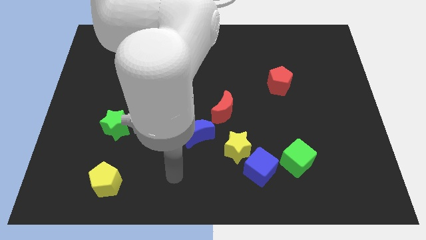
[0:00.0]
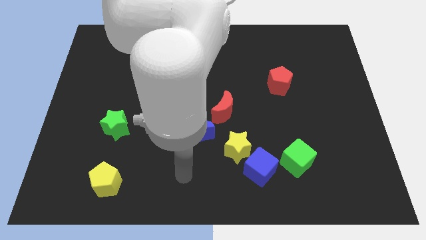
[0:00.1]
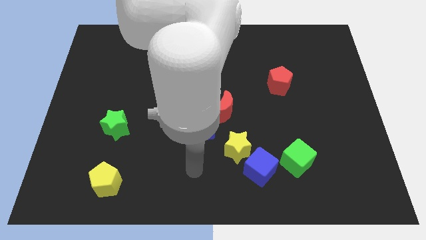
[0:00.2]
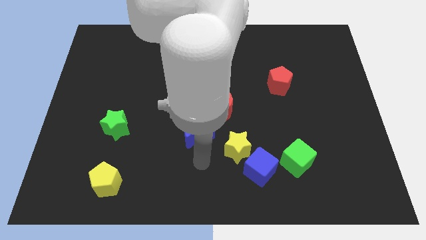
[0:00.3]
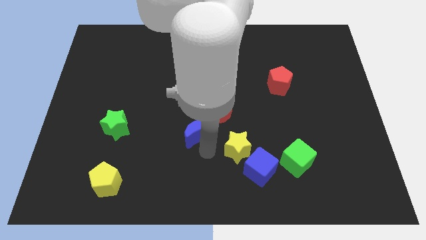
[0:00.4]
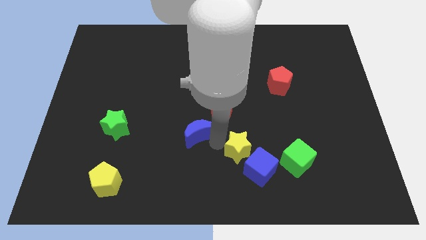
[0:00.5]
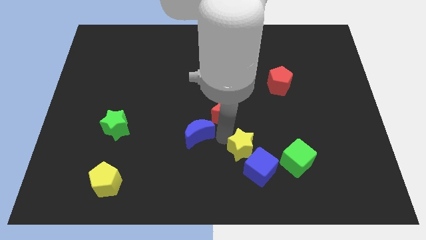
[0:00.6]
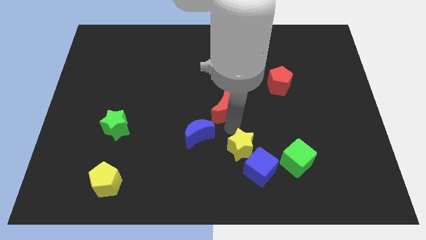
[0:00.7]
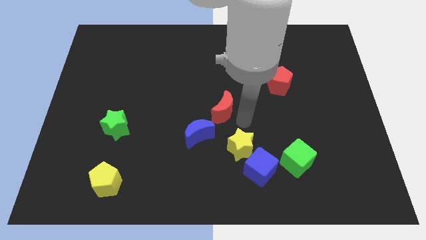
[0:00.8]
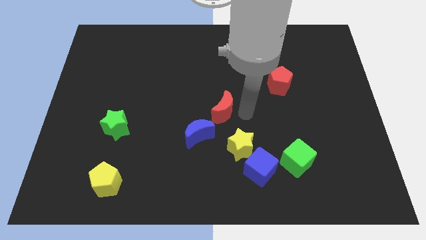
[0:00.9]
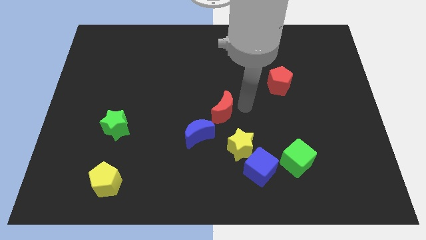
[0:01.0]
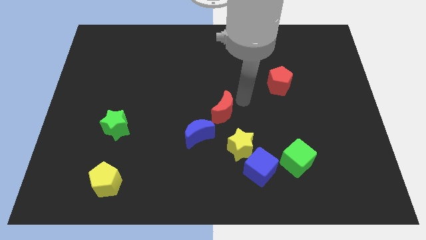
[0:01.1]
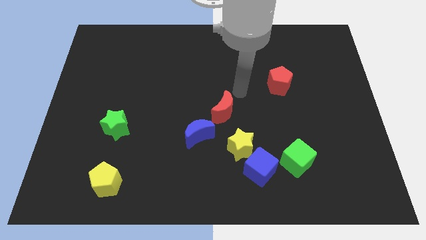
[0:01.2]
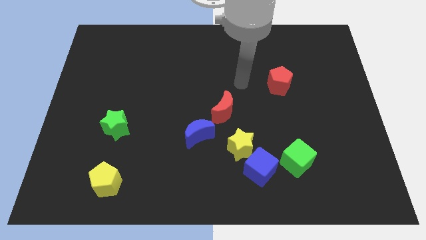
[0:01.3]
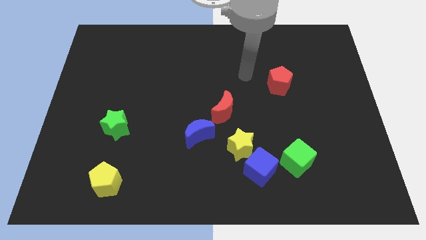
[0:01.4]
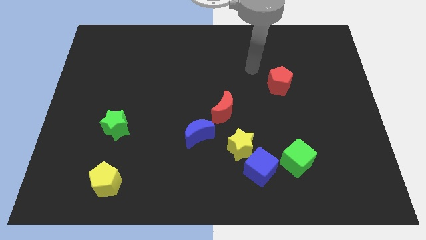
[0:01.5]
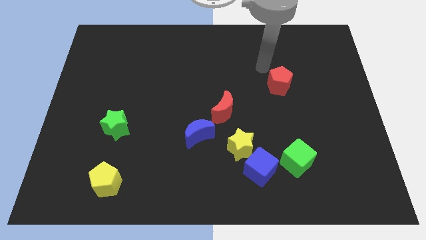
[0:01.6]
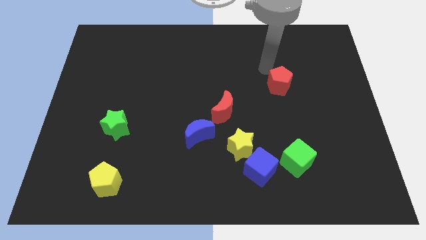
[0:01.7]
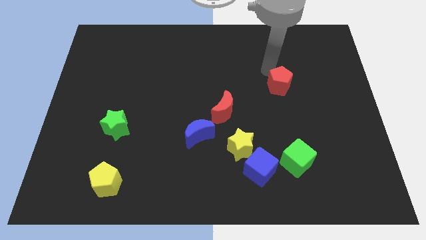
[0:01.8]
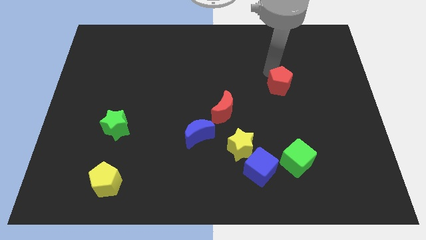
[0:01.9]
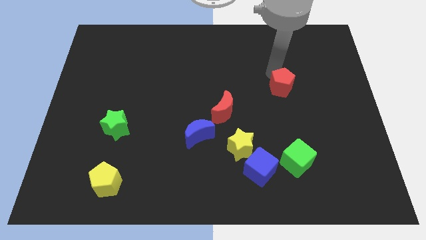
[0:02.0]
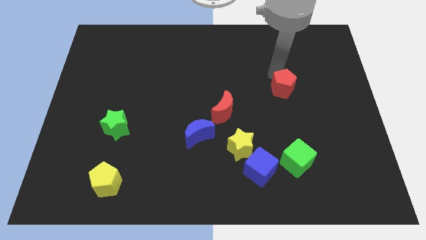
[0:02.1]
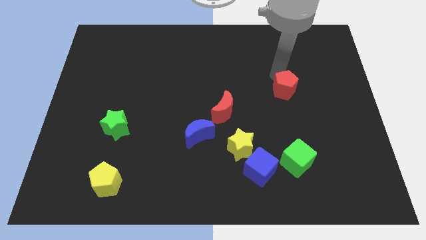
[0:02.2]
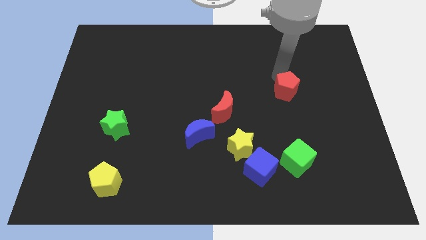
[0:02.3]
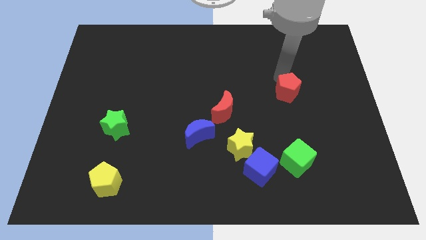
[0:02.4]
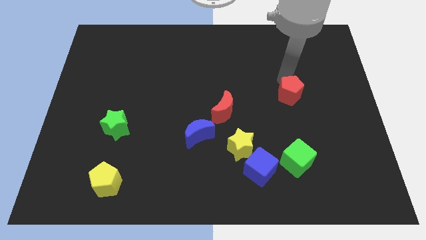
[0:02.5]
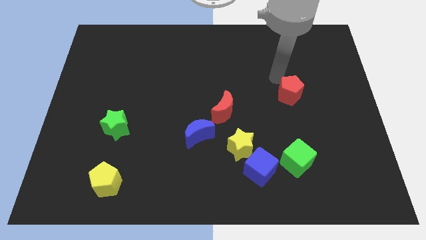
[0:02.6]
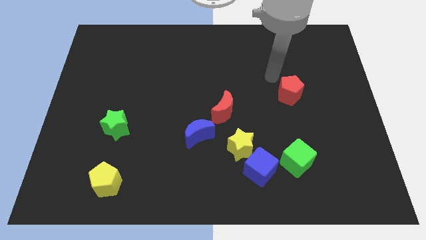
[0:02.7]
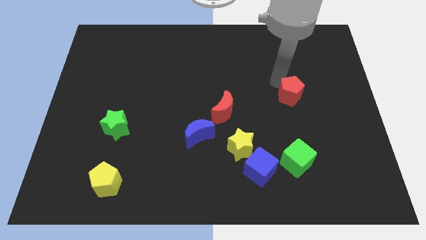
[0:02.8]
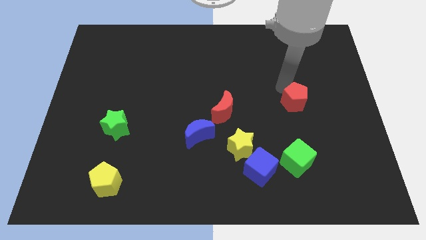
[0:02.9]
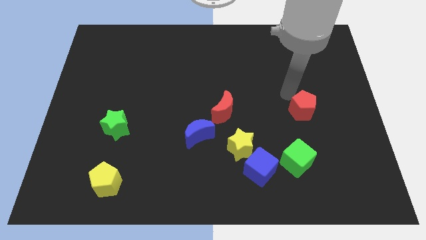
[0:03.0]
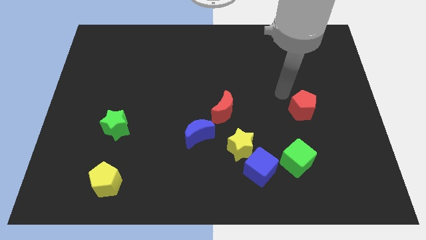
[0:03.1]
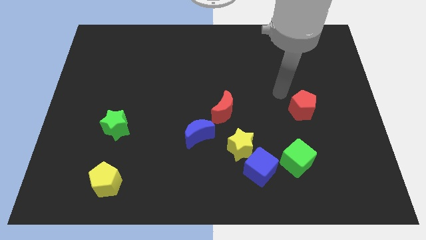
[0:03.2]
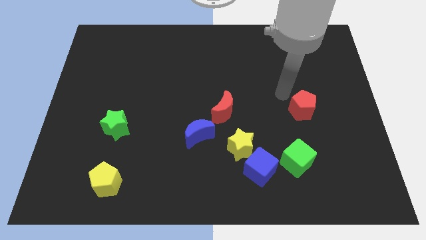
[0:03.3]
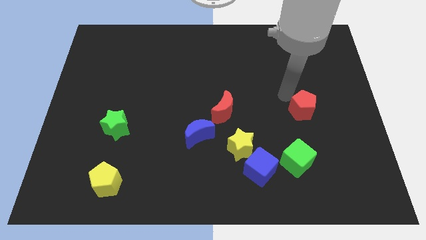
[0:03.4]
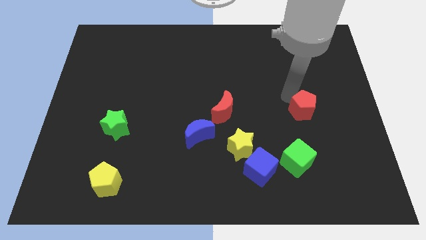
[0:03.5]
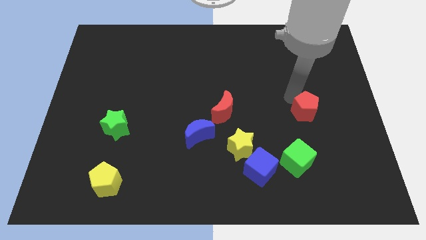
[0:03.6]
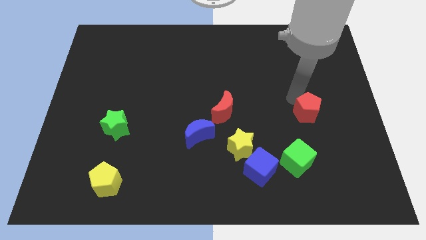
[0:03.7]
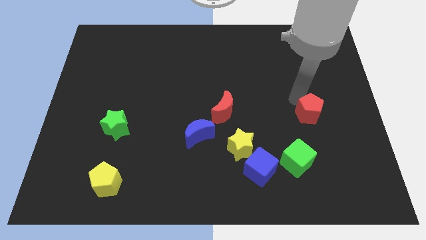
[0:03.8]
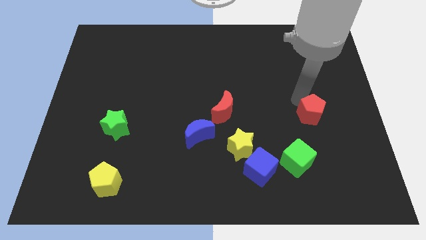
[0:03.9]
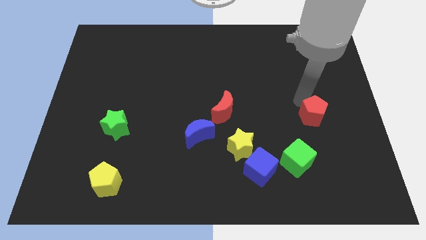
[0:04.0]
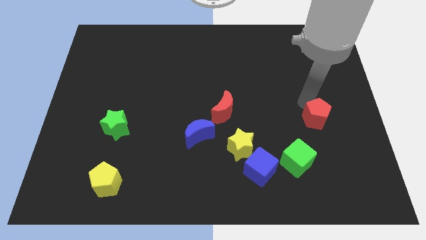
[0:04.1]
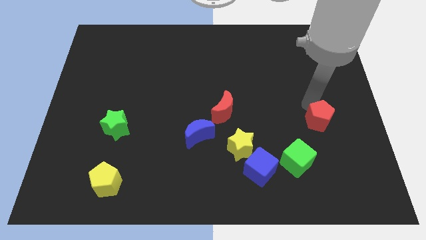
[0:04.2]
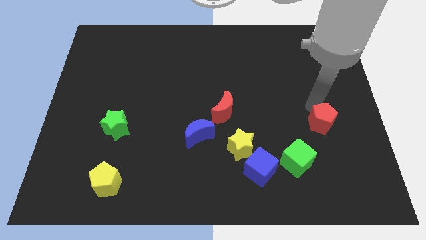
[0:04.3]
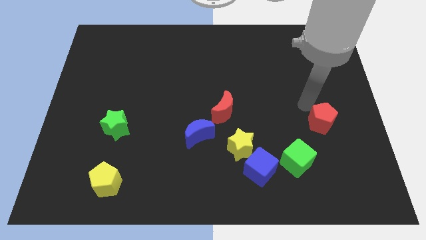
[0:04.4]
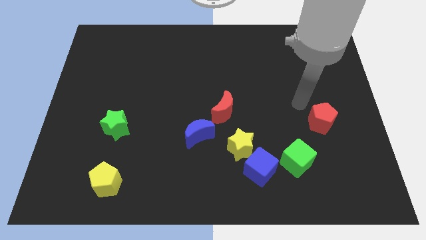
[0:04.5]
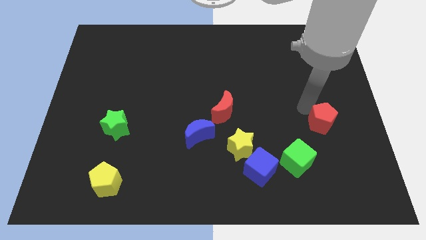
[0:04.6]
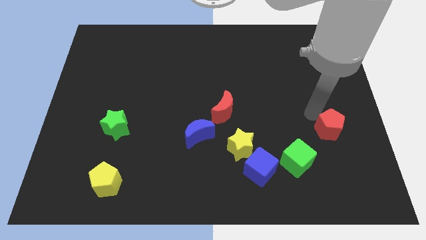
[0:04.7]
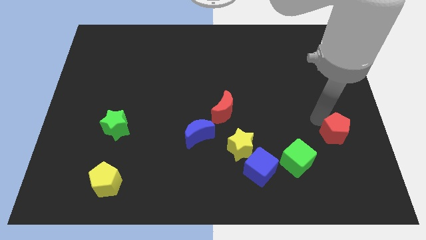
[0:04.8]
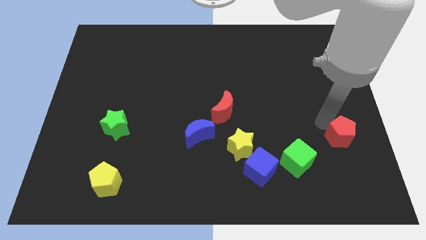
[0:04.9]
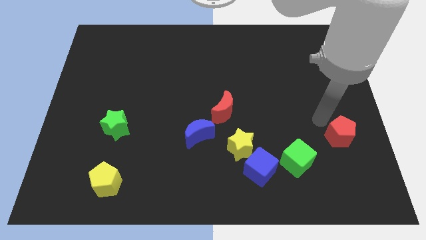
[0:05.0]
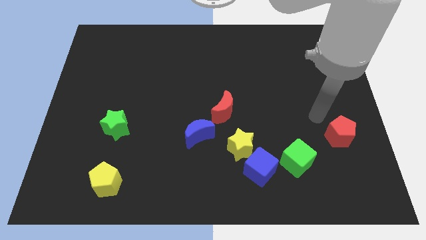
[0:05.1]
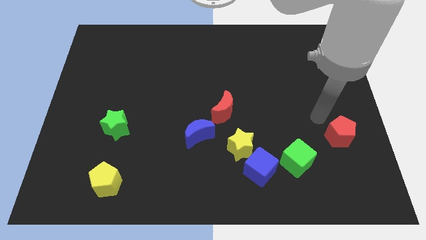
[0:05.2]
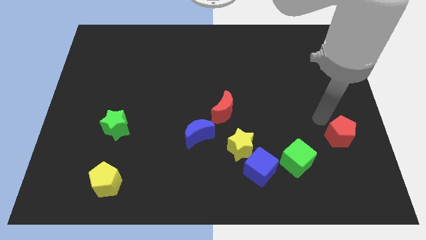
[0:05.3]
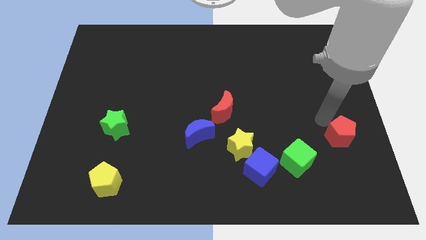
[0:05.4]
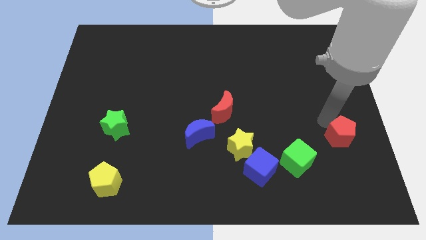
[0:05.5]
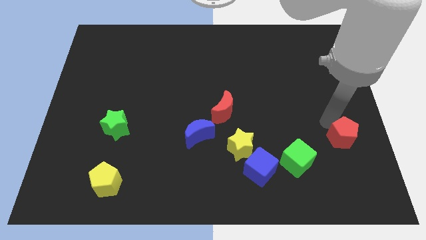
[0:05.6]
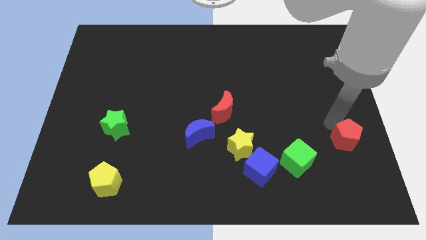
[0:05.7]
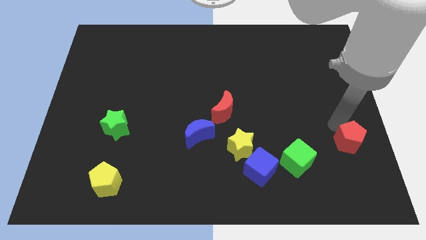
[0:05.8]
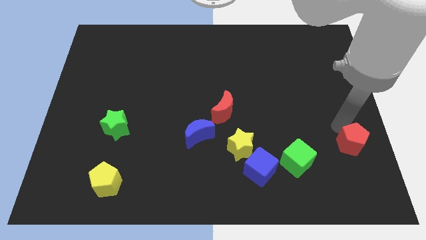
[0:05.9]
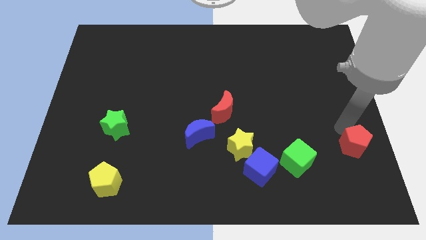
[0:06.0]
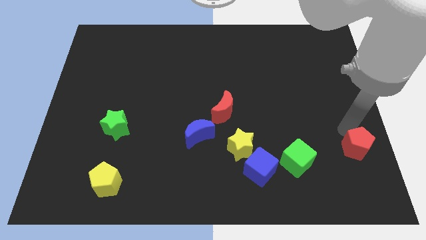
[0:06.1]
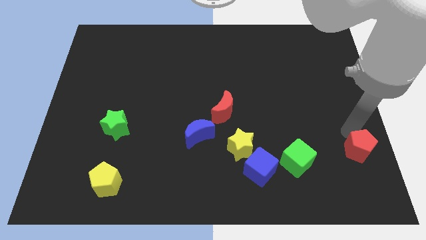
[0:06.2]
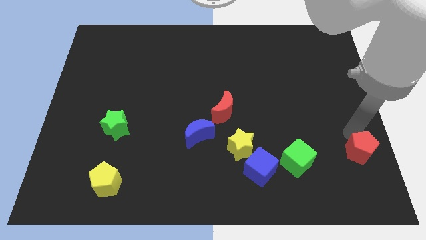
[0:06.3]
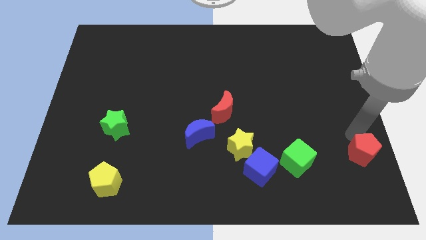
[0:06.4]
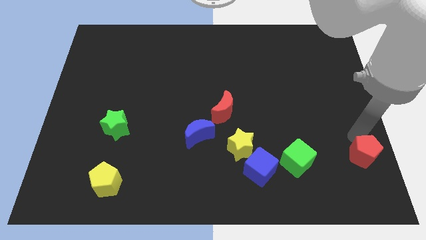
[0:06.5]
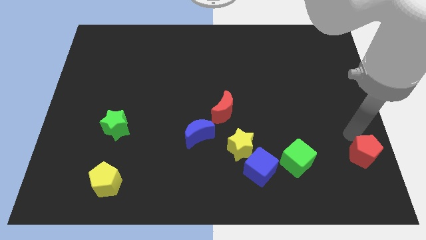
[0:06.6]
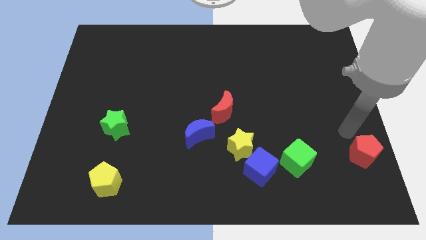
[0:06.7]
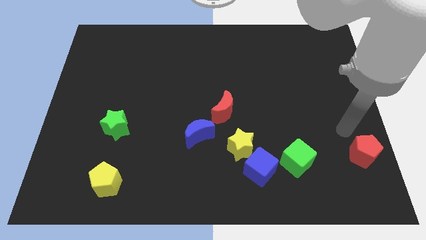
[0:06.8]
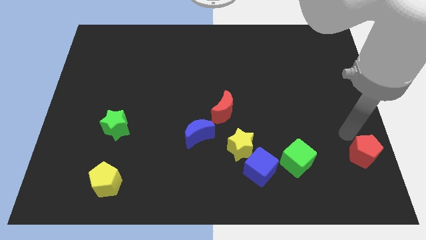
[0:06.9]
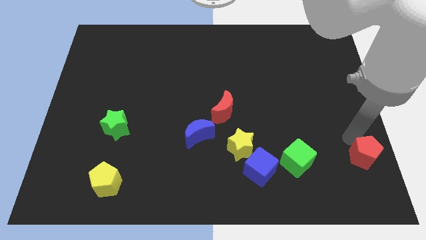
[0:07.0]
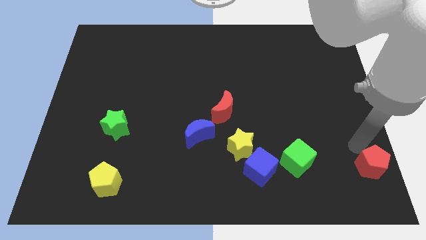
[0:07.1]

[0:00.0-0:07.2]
move the red pentagon to the bottom right corner

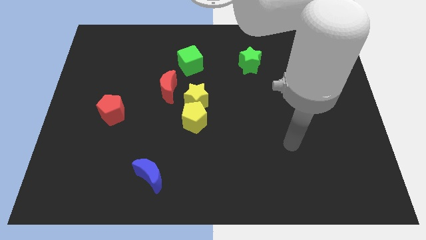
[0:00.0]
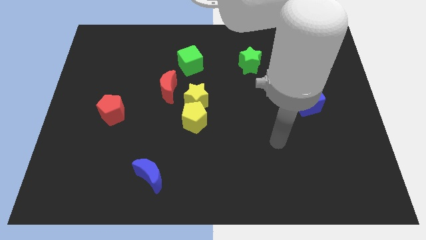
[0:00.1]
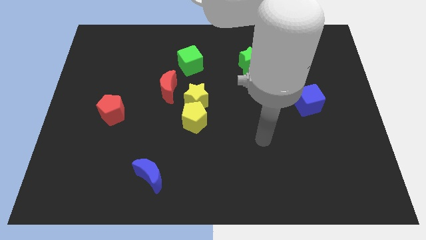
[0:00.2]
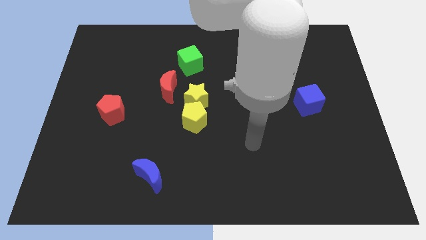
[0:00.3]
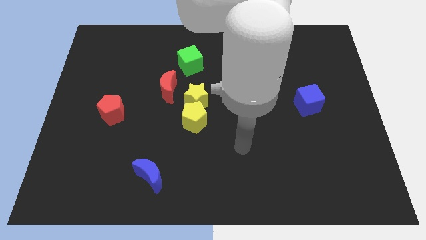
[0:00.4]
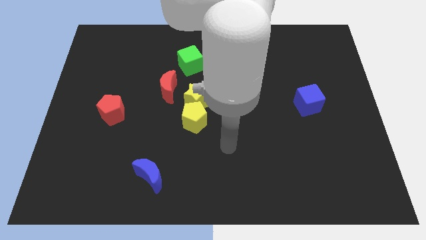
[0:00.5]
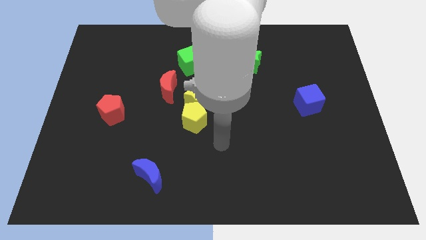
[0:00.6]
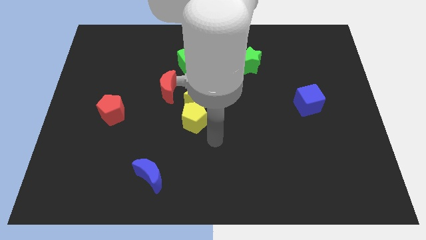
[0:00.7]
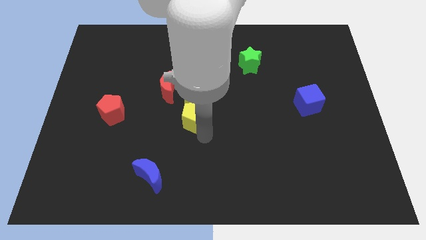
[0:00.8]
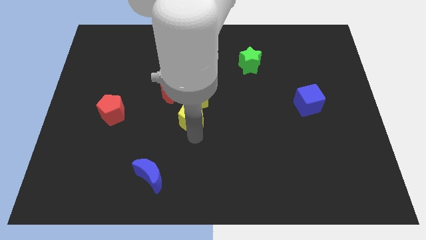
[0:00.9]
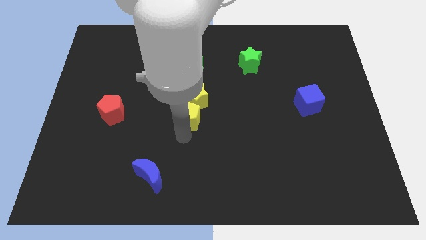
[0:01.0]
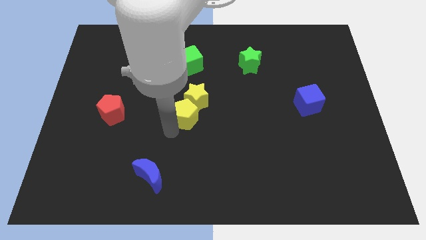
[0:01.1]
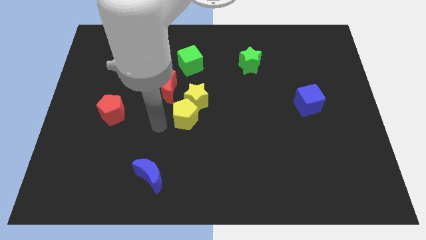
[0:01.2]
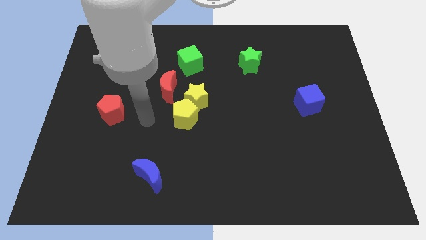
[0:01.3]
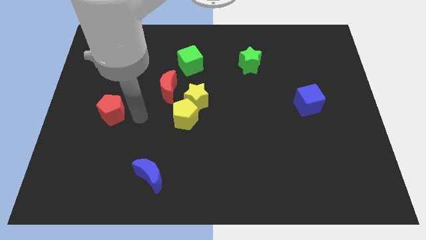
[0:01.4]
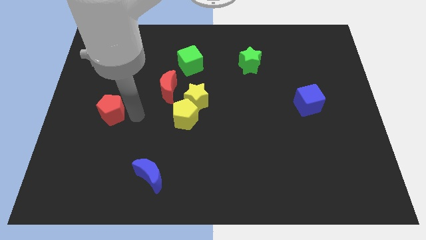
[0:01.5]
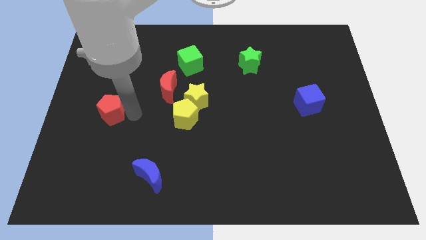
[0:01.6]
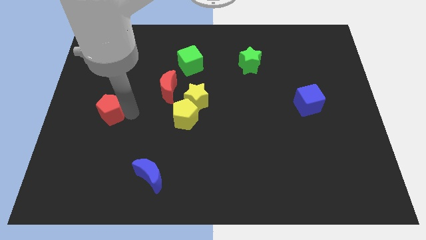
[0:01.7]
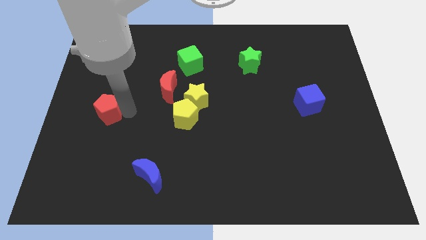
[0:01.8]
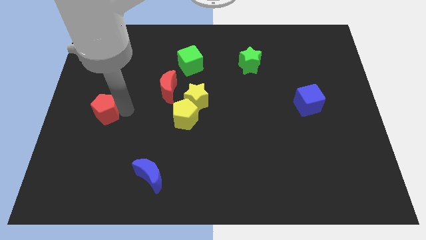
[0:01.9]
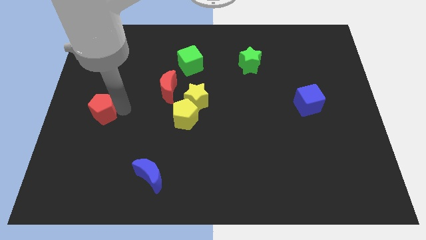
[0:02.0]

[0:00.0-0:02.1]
push the red pentagon to the center left
